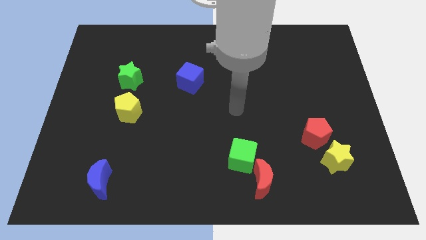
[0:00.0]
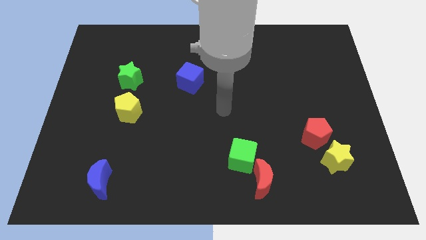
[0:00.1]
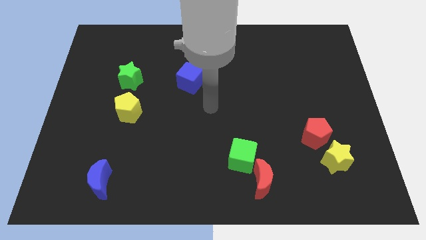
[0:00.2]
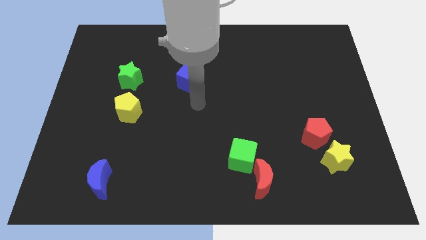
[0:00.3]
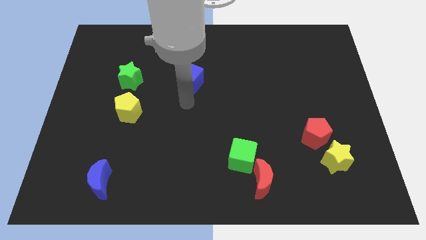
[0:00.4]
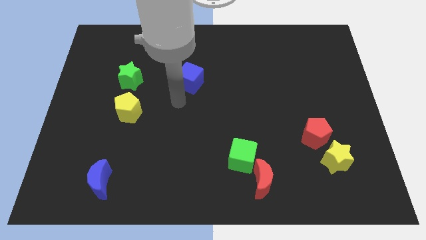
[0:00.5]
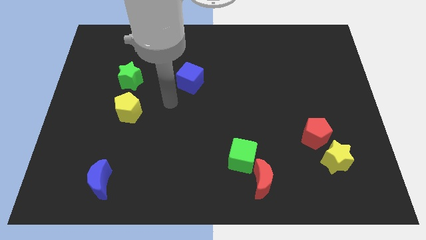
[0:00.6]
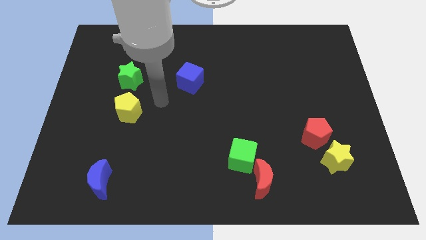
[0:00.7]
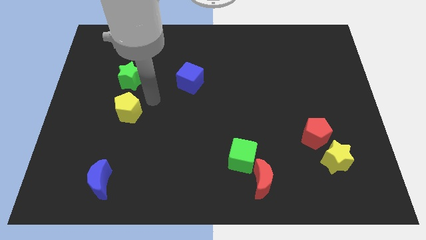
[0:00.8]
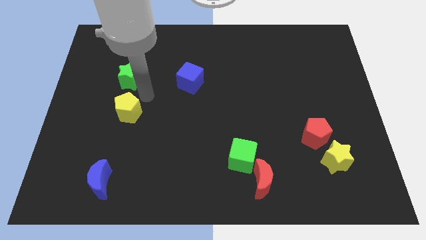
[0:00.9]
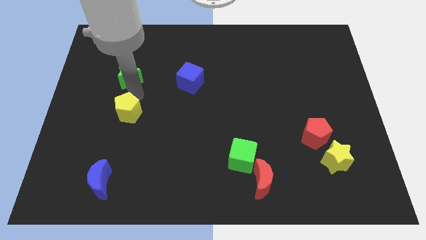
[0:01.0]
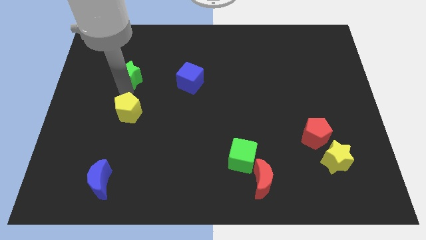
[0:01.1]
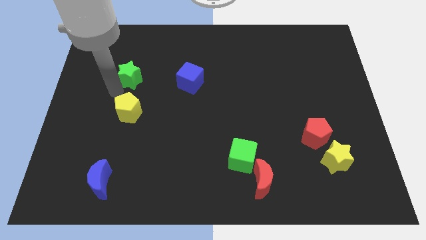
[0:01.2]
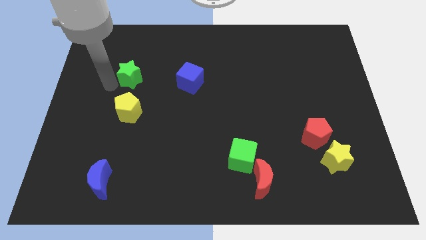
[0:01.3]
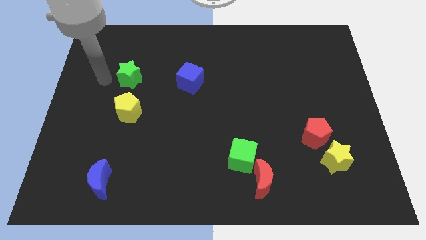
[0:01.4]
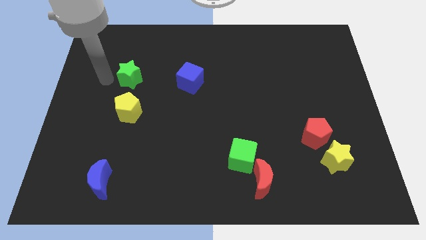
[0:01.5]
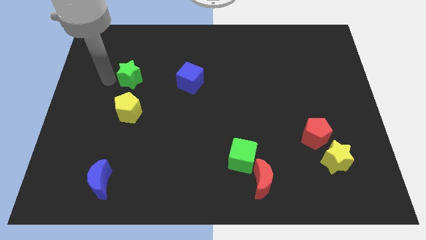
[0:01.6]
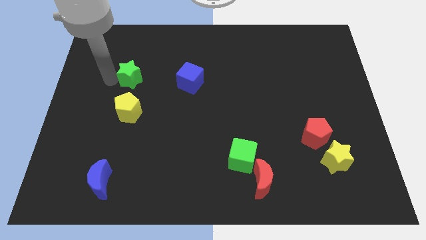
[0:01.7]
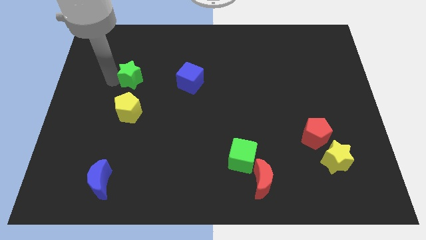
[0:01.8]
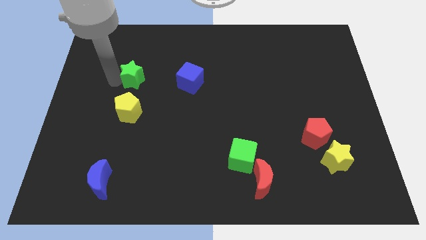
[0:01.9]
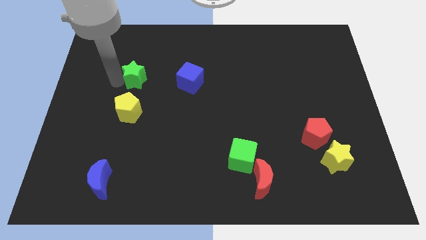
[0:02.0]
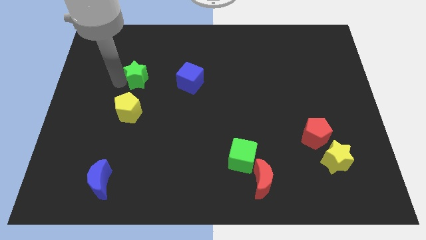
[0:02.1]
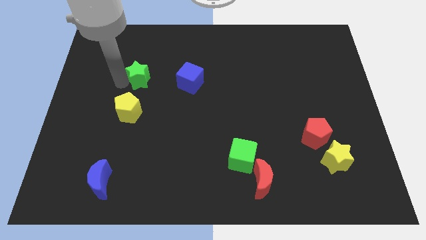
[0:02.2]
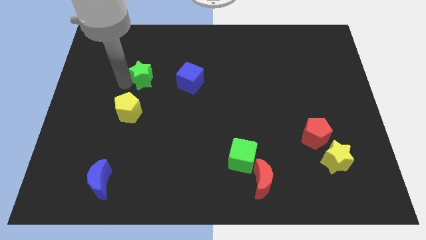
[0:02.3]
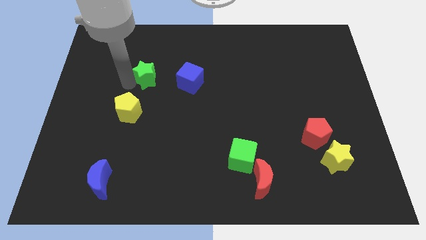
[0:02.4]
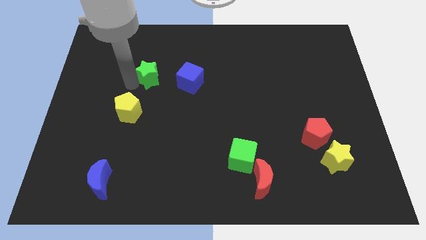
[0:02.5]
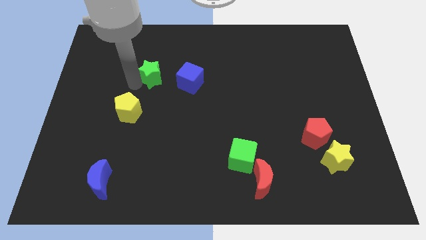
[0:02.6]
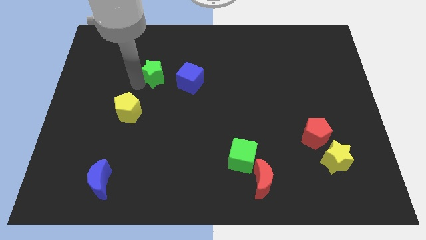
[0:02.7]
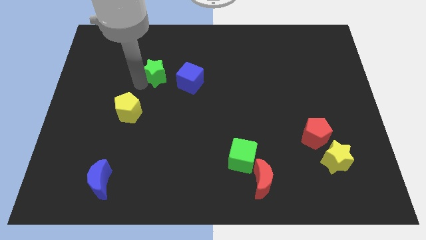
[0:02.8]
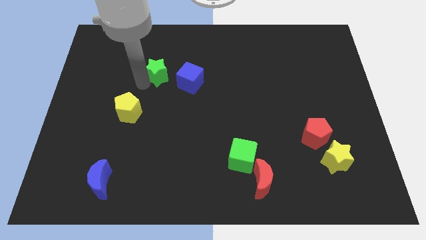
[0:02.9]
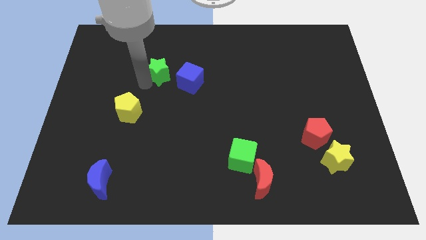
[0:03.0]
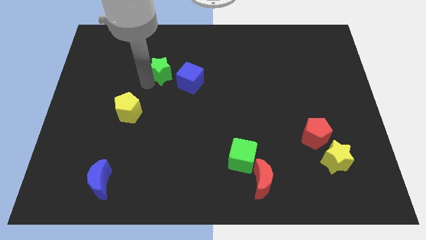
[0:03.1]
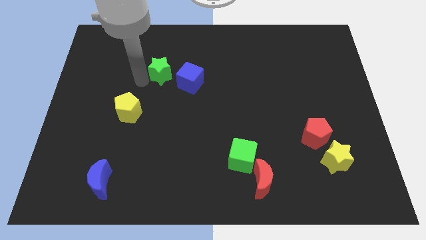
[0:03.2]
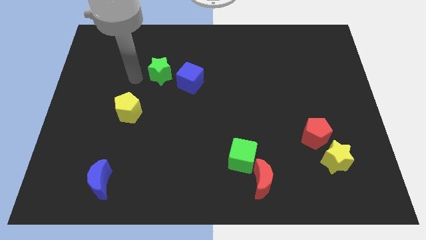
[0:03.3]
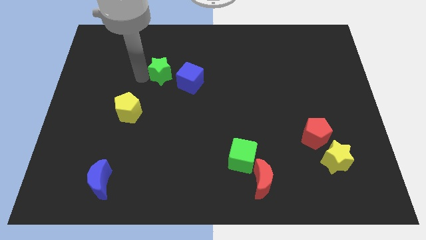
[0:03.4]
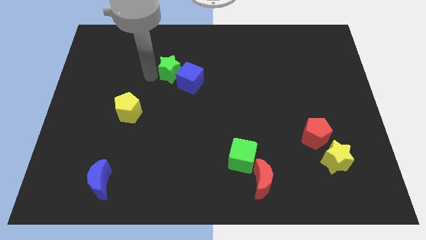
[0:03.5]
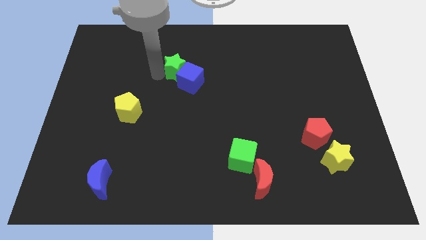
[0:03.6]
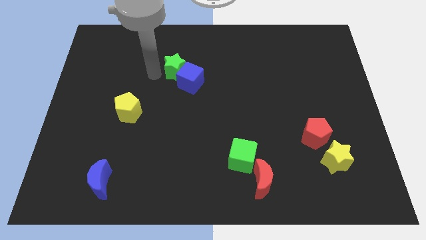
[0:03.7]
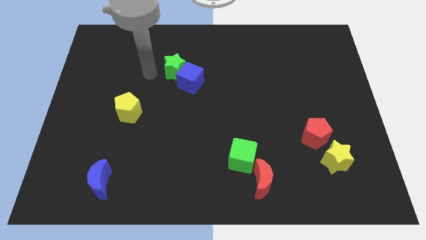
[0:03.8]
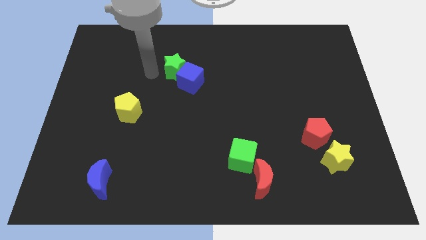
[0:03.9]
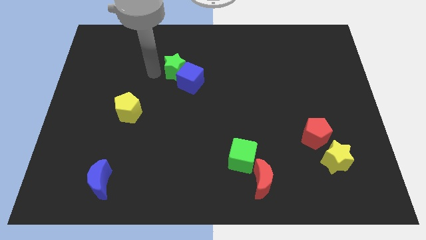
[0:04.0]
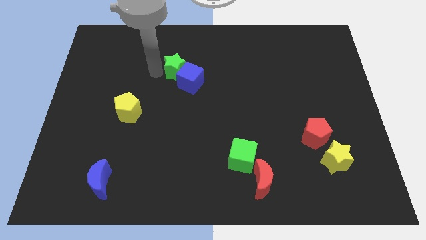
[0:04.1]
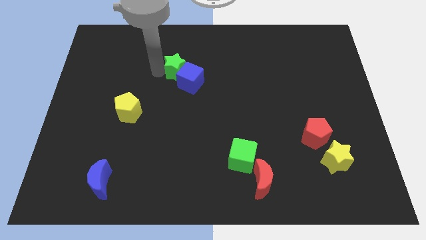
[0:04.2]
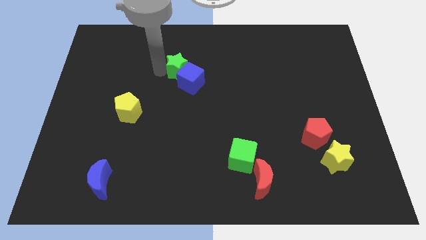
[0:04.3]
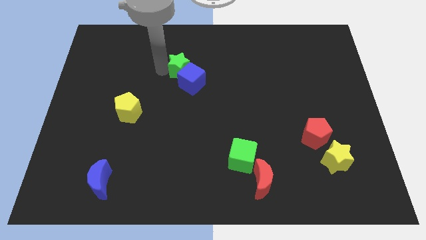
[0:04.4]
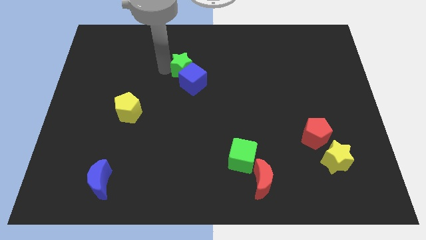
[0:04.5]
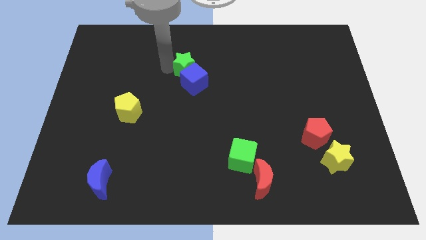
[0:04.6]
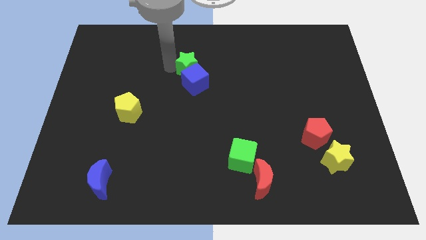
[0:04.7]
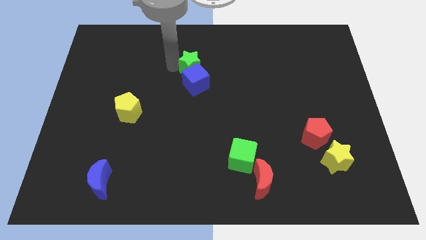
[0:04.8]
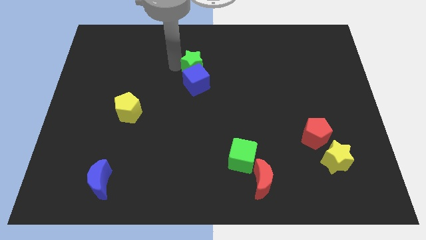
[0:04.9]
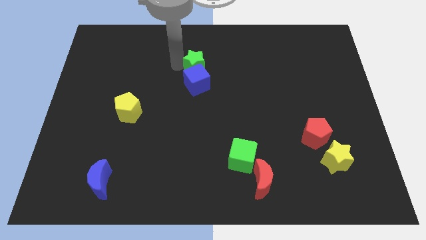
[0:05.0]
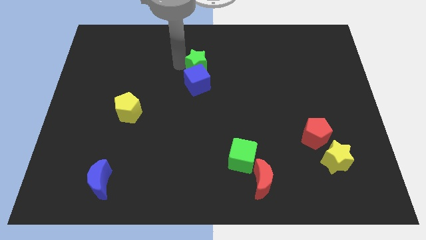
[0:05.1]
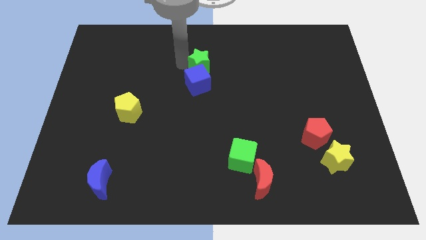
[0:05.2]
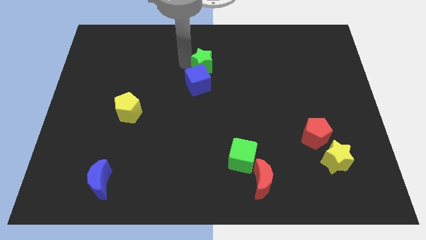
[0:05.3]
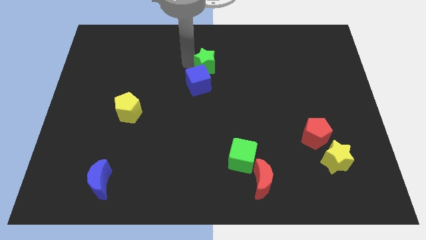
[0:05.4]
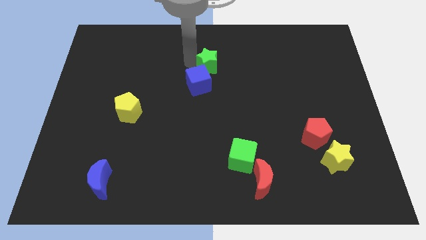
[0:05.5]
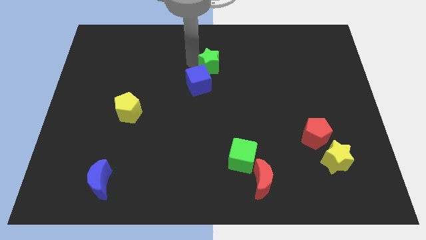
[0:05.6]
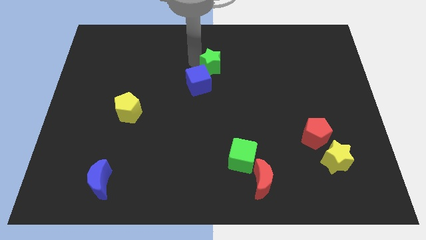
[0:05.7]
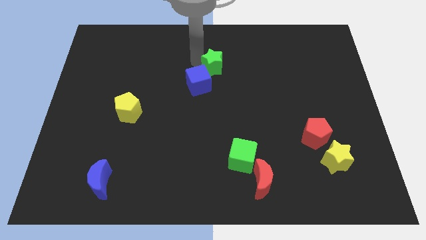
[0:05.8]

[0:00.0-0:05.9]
push the green star to the right

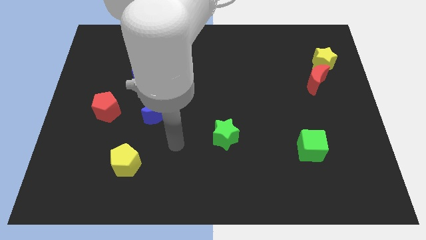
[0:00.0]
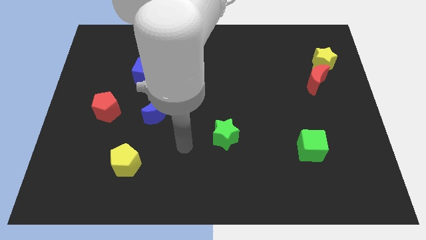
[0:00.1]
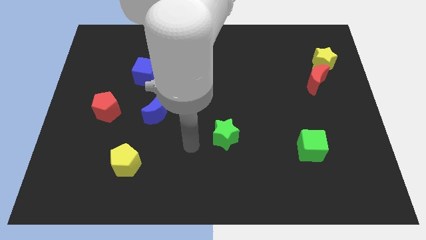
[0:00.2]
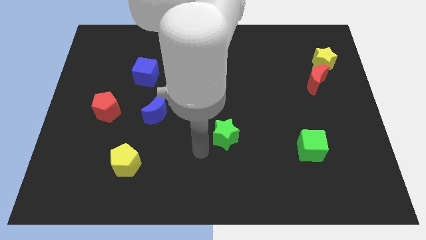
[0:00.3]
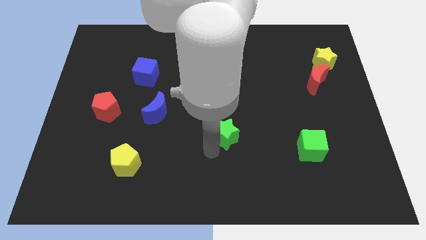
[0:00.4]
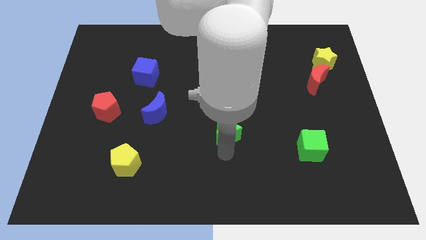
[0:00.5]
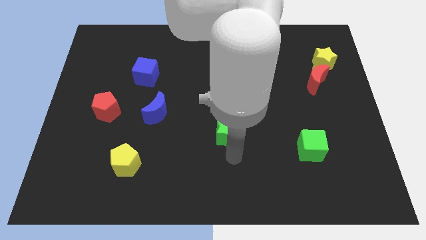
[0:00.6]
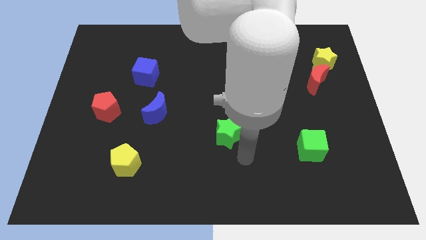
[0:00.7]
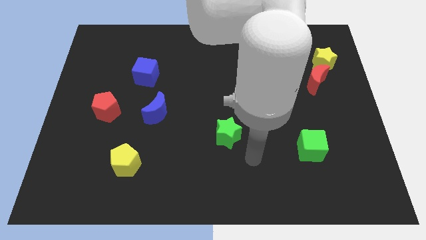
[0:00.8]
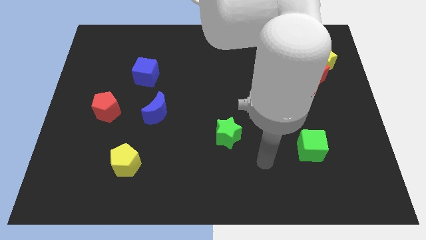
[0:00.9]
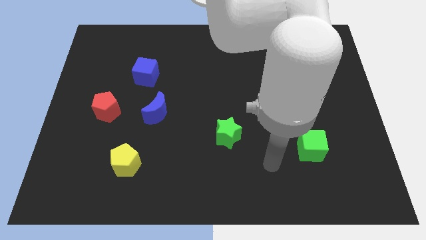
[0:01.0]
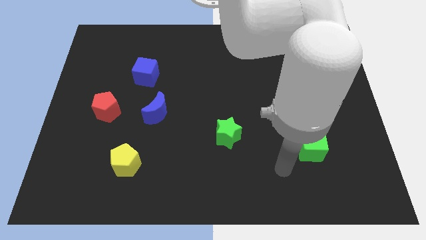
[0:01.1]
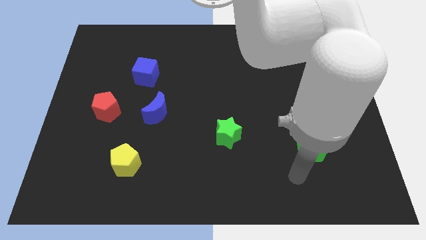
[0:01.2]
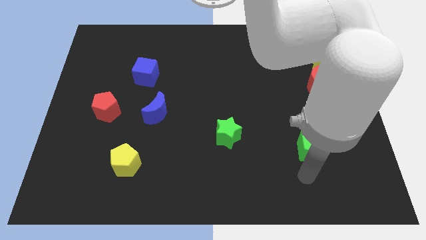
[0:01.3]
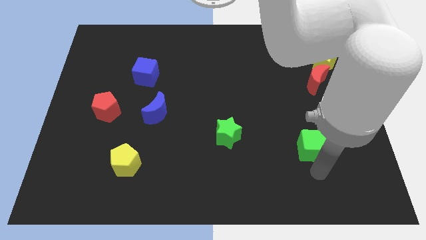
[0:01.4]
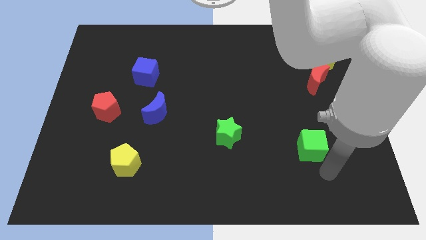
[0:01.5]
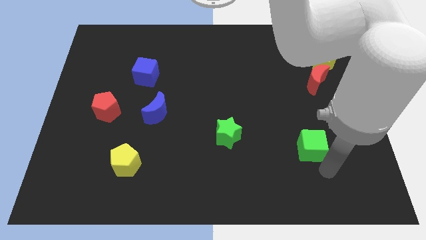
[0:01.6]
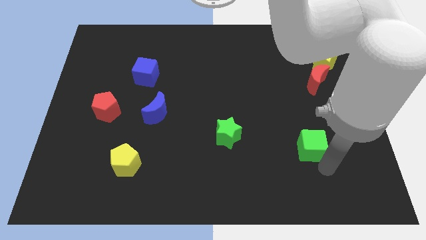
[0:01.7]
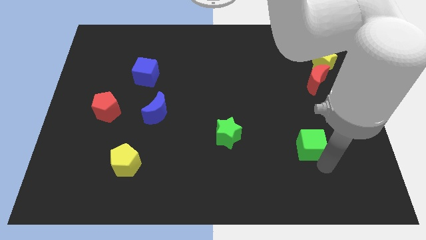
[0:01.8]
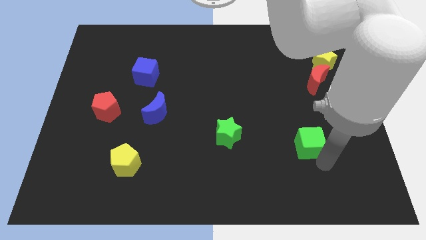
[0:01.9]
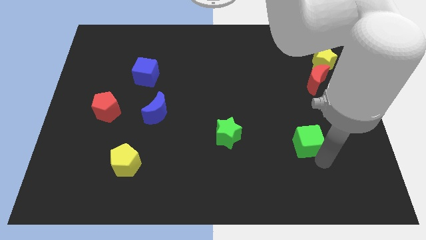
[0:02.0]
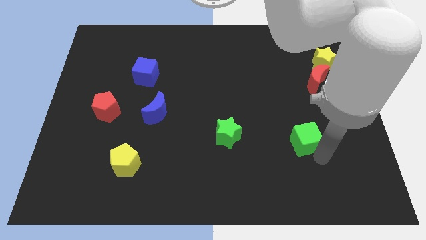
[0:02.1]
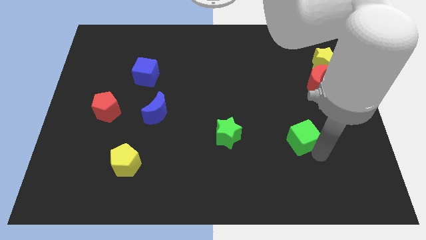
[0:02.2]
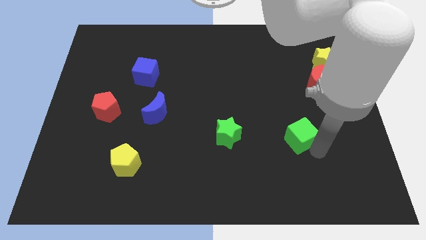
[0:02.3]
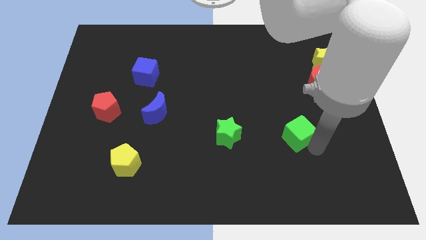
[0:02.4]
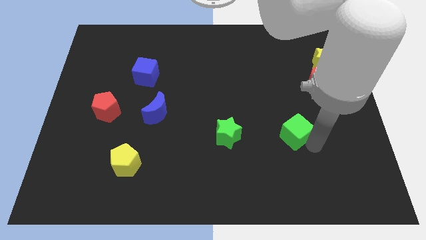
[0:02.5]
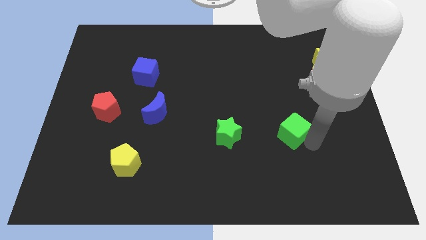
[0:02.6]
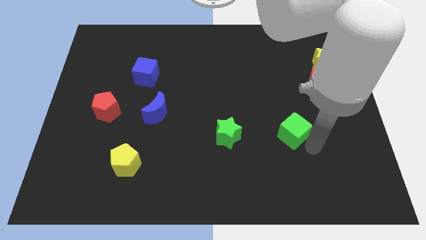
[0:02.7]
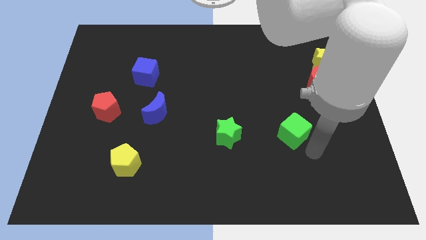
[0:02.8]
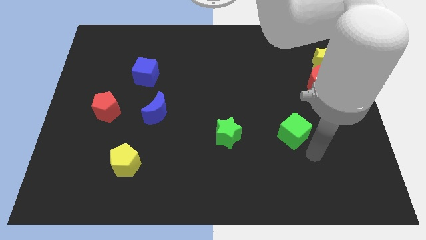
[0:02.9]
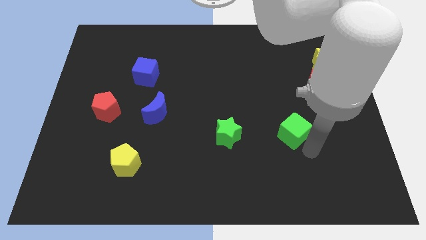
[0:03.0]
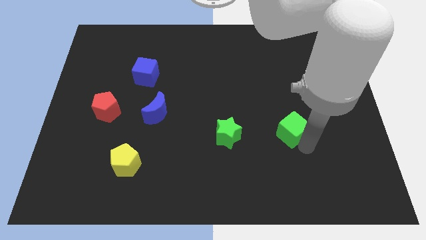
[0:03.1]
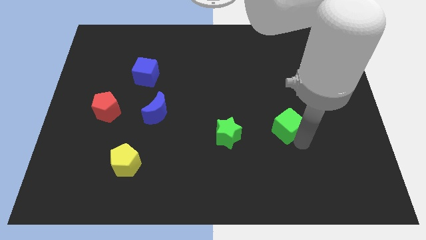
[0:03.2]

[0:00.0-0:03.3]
slide the green cube up and to the left a bit
